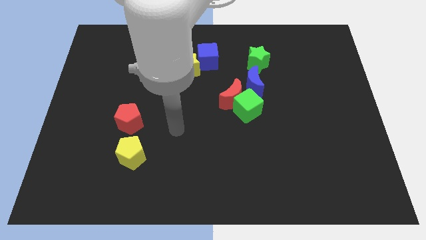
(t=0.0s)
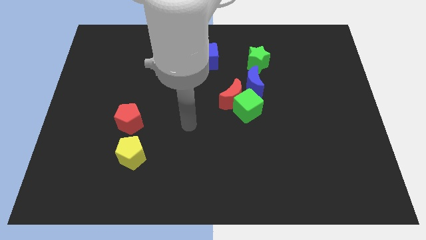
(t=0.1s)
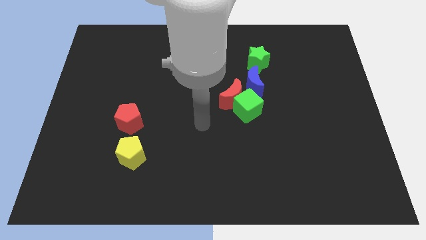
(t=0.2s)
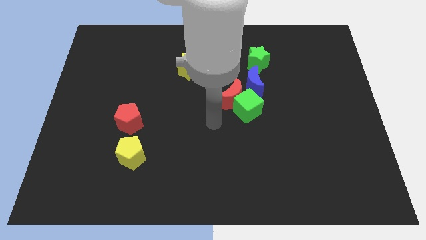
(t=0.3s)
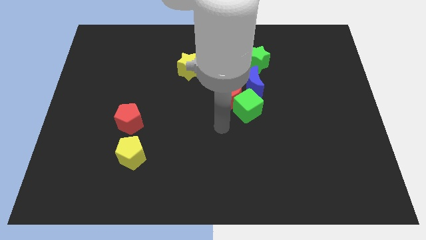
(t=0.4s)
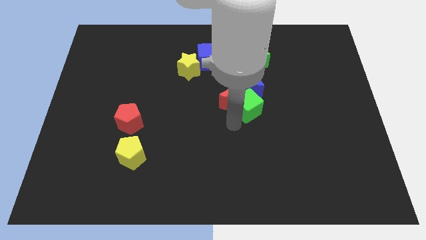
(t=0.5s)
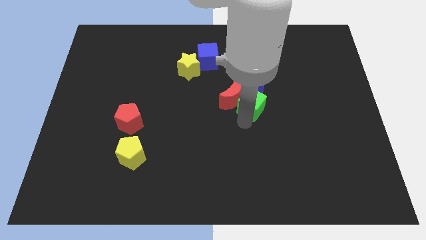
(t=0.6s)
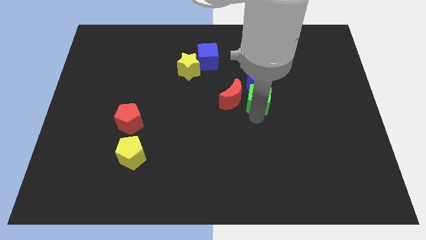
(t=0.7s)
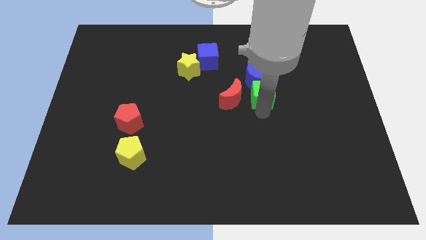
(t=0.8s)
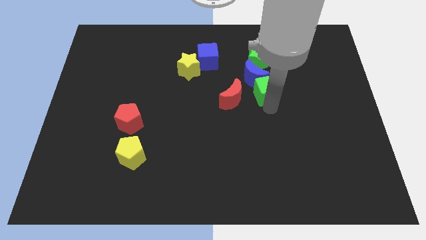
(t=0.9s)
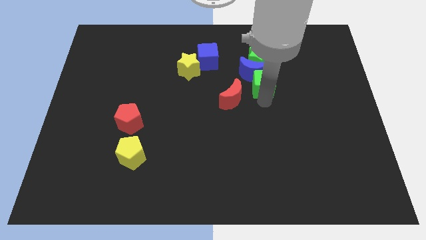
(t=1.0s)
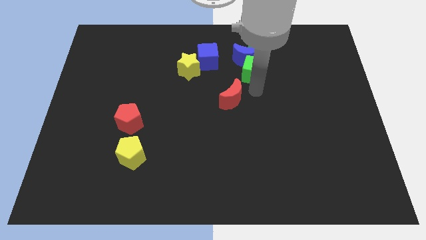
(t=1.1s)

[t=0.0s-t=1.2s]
move the red moon away from the green cube and blue moon

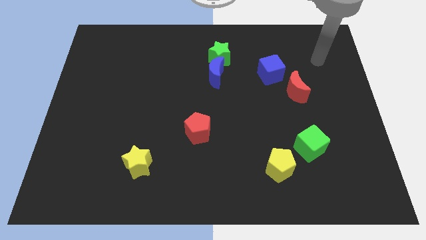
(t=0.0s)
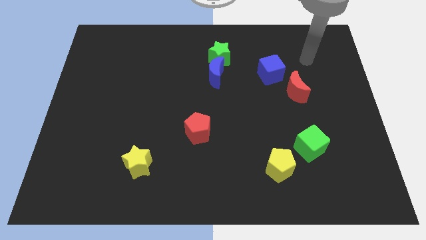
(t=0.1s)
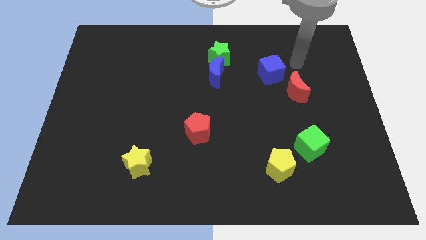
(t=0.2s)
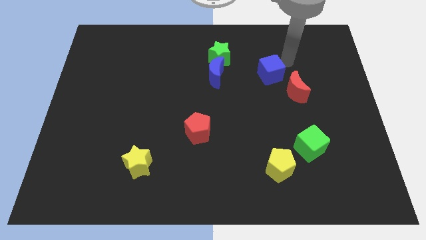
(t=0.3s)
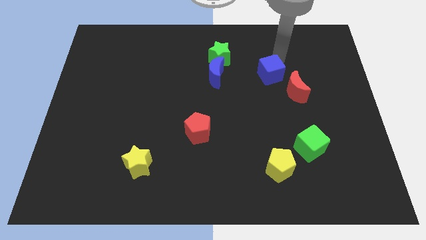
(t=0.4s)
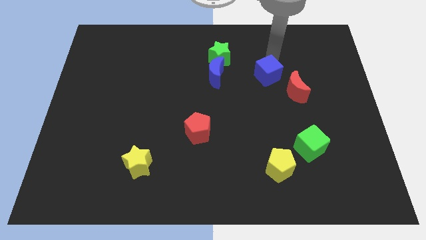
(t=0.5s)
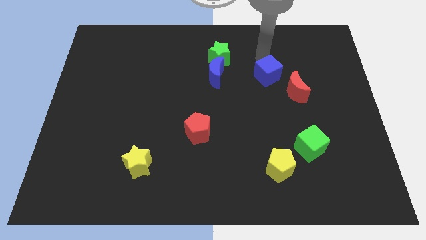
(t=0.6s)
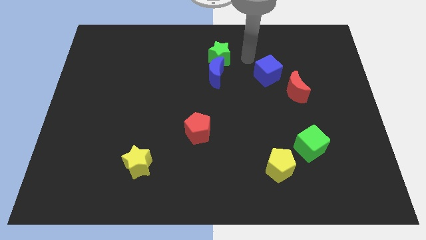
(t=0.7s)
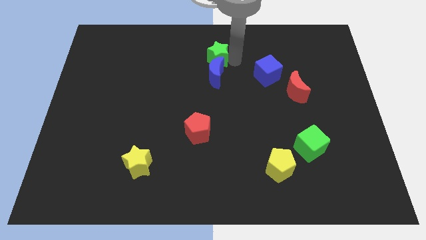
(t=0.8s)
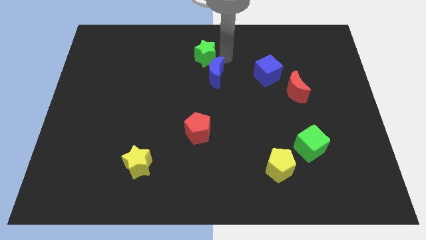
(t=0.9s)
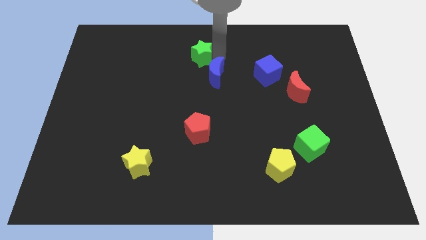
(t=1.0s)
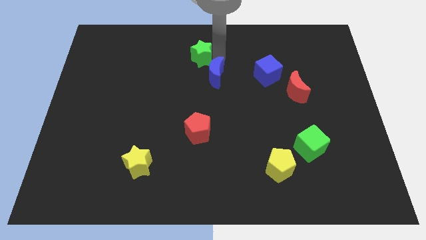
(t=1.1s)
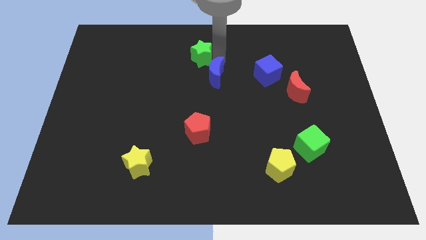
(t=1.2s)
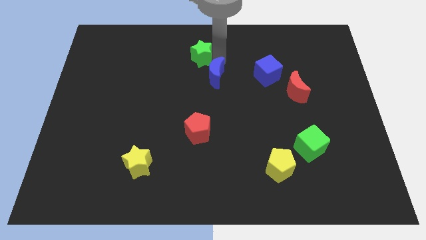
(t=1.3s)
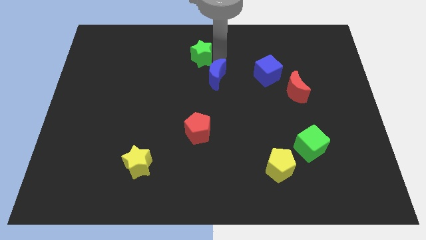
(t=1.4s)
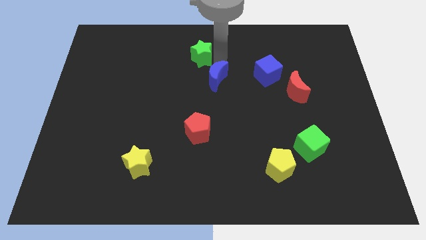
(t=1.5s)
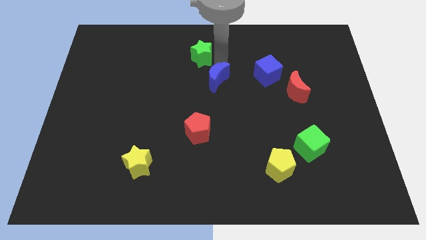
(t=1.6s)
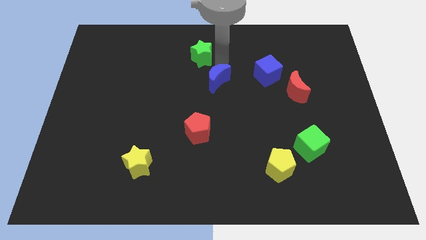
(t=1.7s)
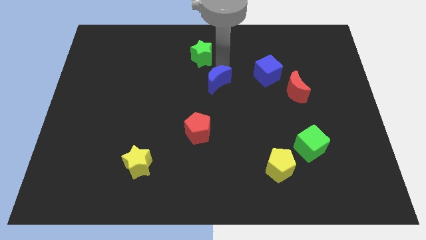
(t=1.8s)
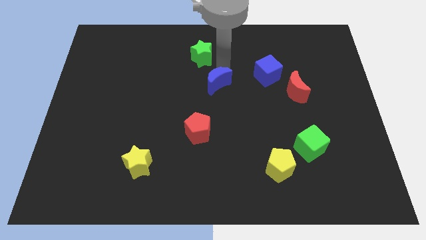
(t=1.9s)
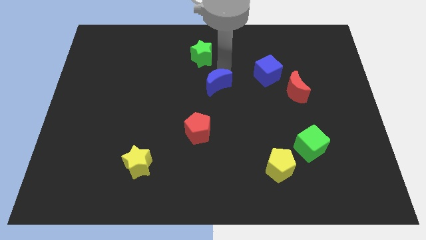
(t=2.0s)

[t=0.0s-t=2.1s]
pull the blue moon apart from the green star

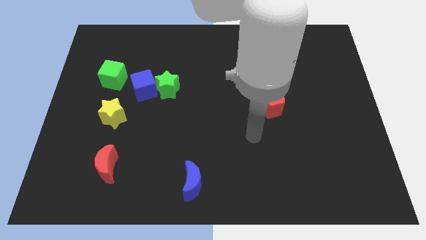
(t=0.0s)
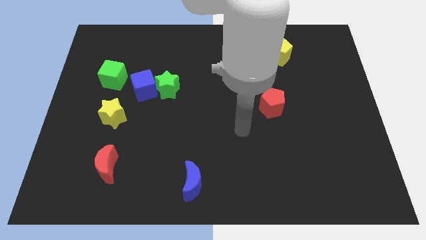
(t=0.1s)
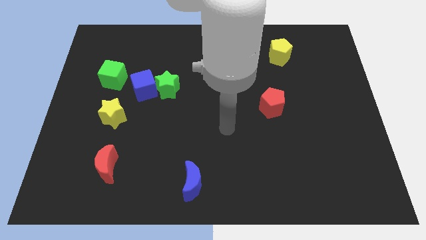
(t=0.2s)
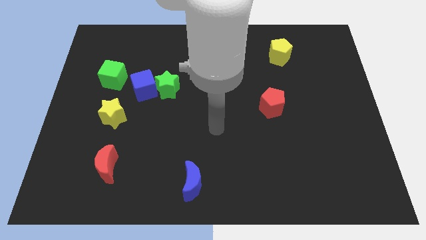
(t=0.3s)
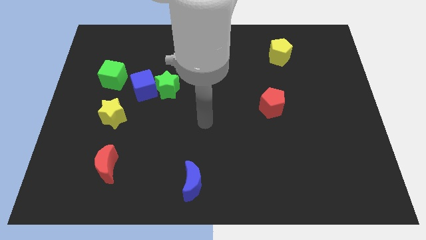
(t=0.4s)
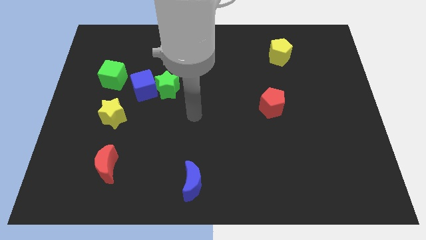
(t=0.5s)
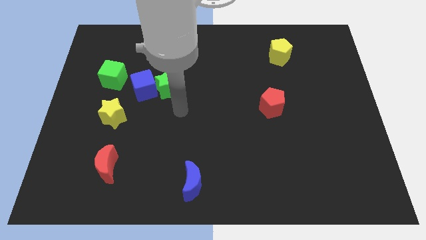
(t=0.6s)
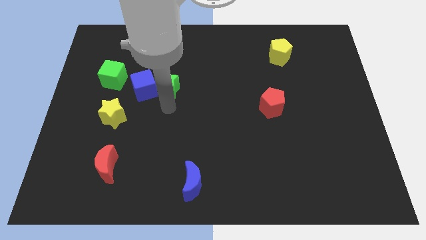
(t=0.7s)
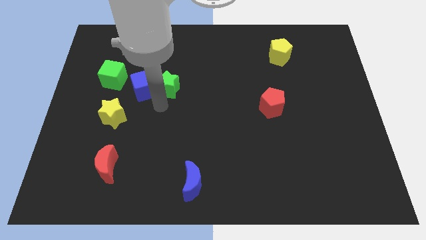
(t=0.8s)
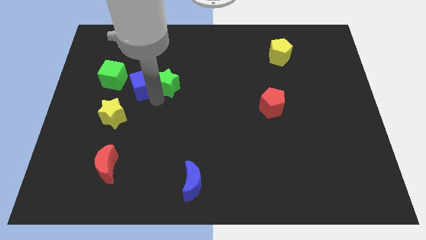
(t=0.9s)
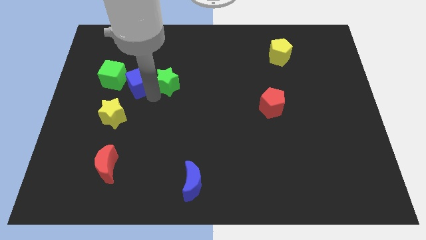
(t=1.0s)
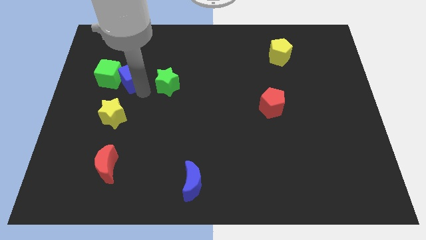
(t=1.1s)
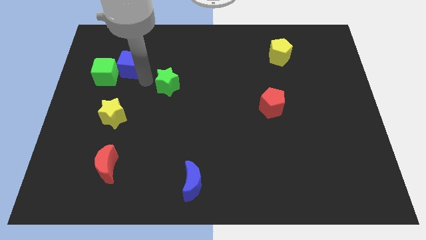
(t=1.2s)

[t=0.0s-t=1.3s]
pull the green star apart from the blue cube

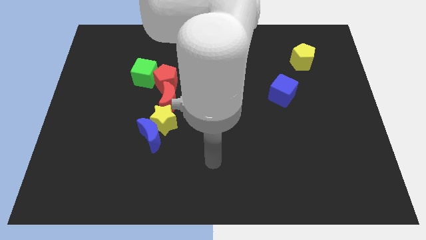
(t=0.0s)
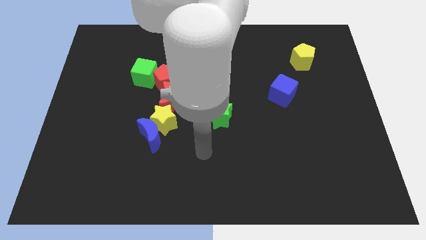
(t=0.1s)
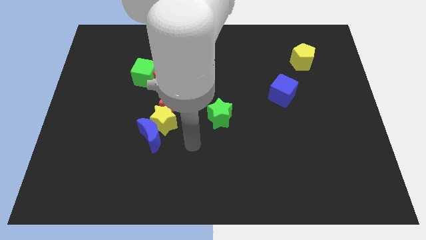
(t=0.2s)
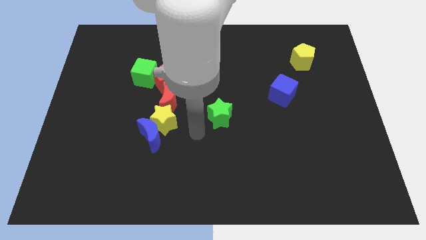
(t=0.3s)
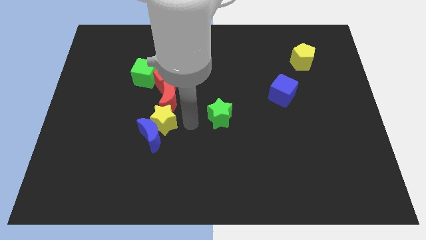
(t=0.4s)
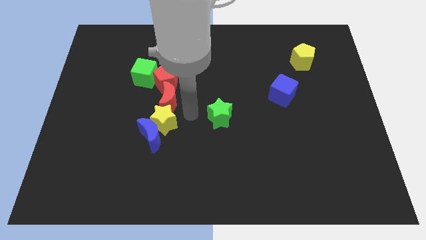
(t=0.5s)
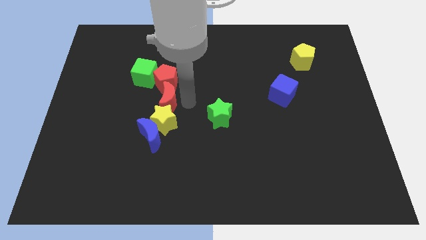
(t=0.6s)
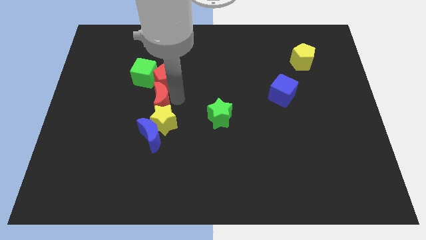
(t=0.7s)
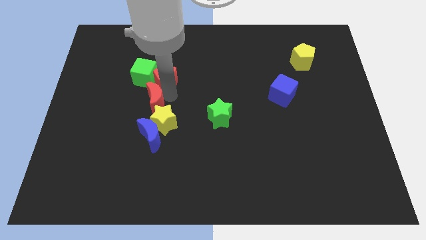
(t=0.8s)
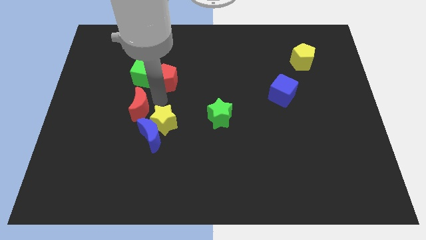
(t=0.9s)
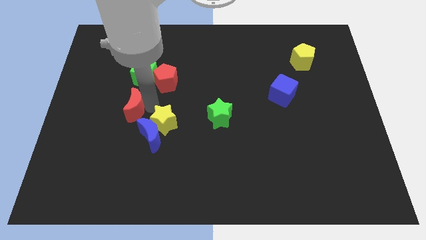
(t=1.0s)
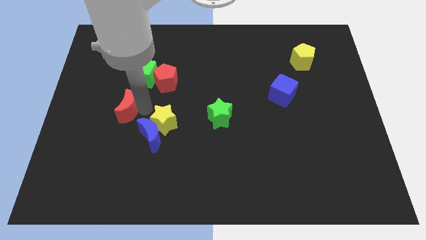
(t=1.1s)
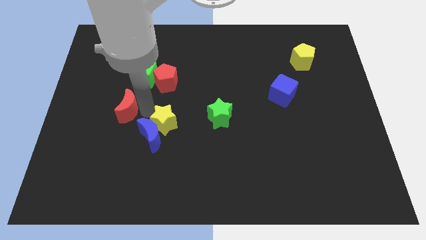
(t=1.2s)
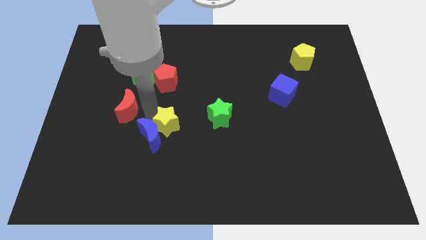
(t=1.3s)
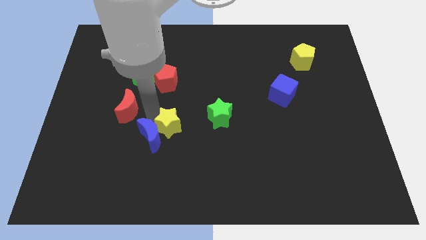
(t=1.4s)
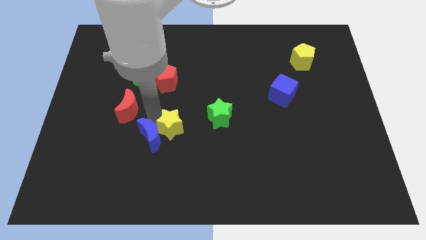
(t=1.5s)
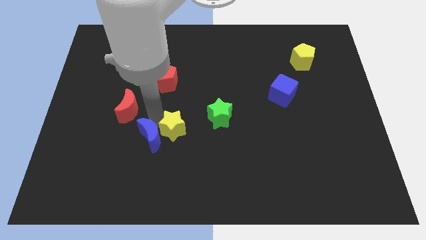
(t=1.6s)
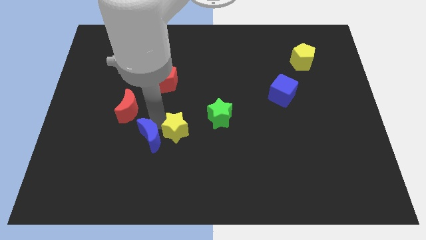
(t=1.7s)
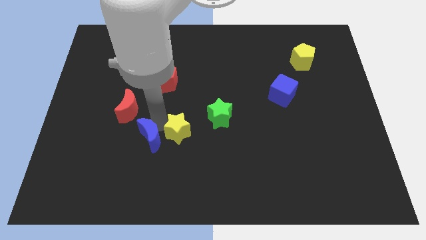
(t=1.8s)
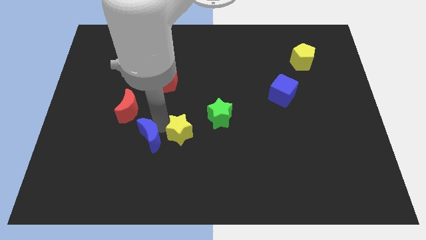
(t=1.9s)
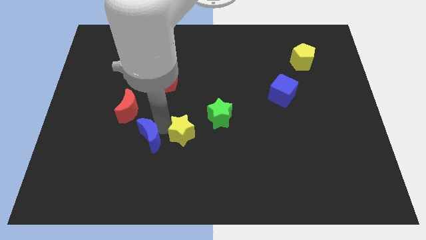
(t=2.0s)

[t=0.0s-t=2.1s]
move the yellow star away from the blue moon and red moon

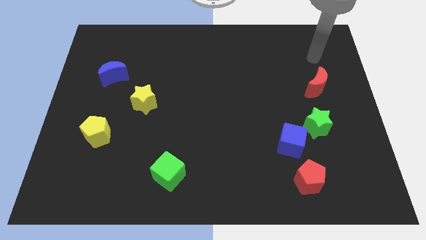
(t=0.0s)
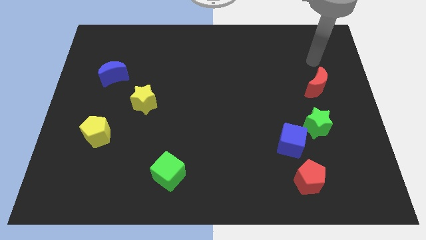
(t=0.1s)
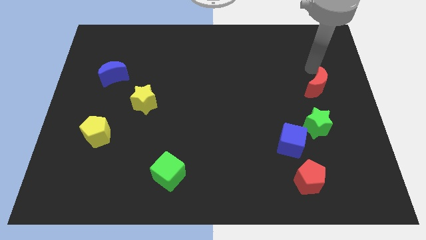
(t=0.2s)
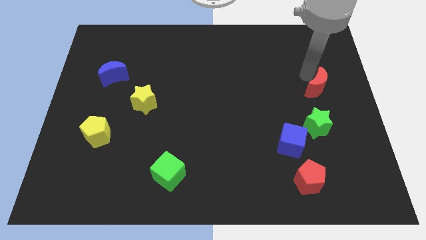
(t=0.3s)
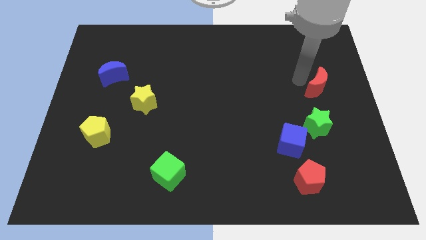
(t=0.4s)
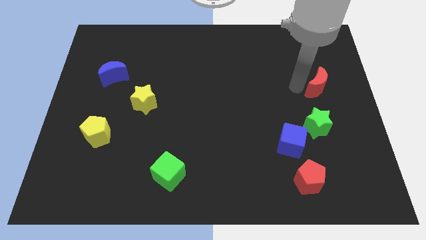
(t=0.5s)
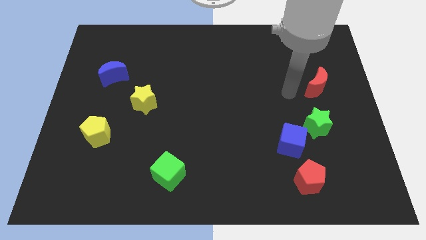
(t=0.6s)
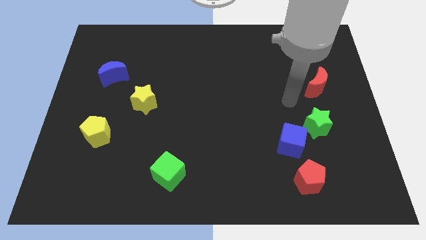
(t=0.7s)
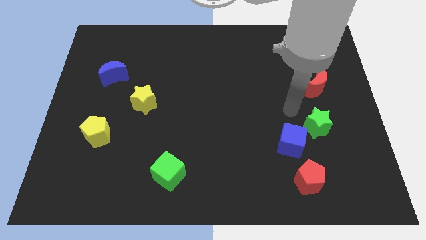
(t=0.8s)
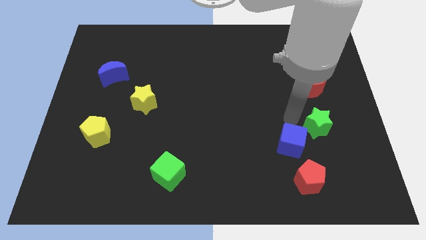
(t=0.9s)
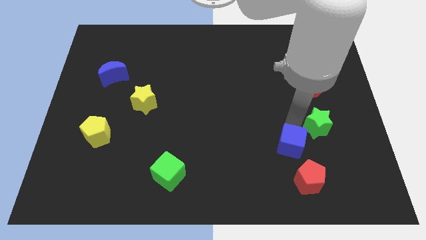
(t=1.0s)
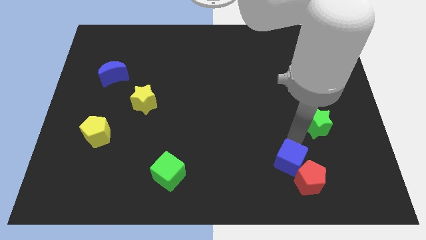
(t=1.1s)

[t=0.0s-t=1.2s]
separate the green star from the blue cube

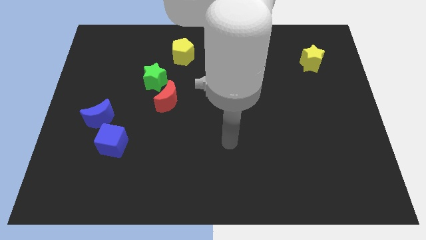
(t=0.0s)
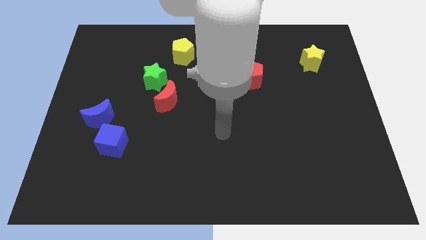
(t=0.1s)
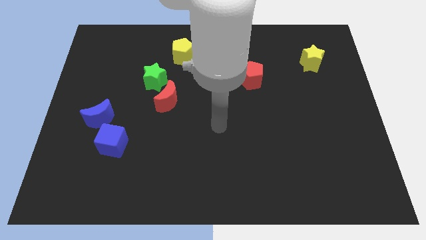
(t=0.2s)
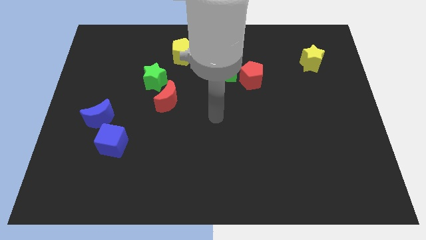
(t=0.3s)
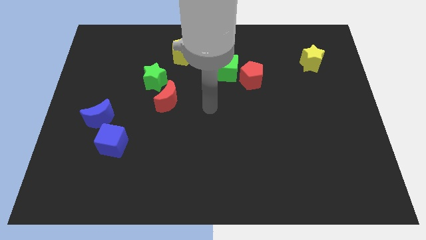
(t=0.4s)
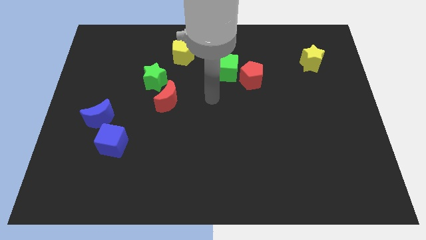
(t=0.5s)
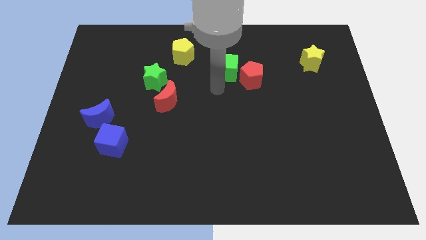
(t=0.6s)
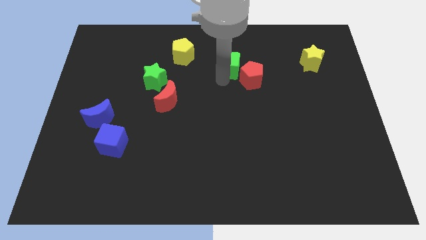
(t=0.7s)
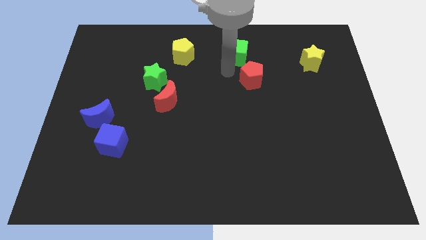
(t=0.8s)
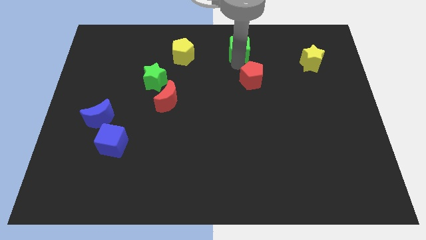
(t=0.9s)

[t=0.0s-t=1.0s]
separate the red pentagon from the green cube

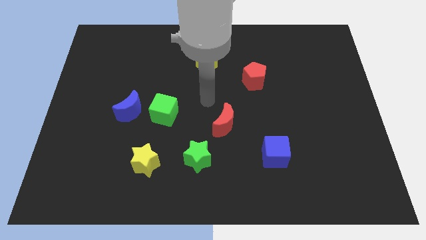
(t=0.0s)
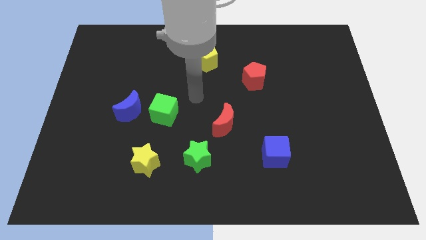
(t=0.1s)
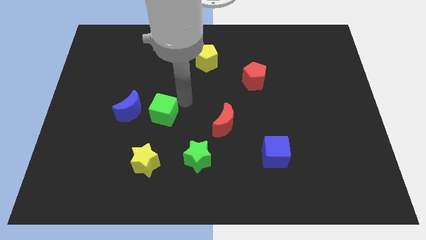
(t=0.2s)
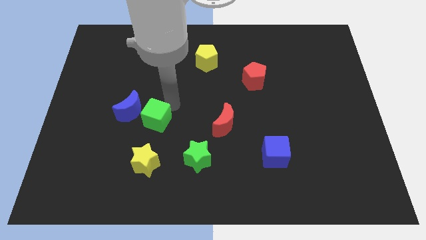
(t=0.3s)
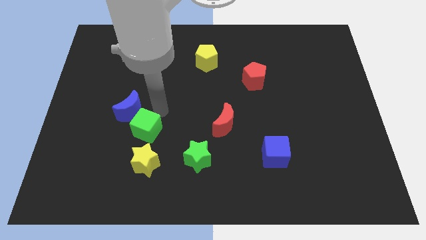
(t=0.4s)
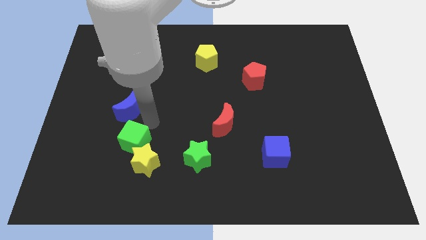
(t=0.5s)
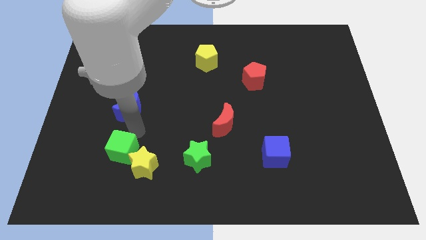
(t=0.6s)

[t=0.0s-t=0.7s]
pull the blue moon apart from the green cube
